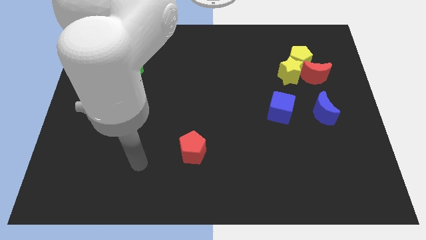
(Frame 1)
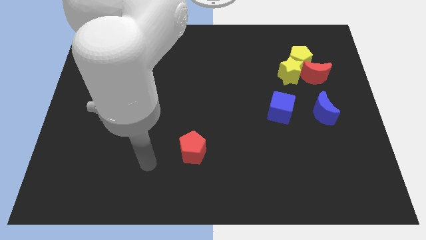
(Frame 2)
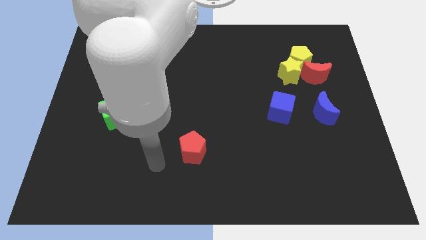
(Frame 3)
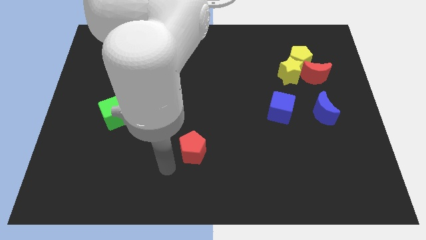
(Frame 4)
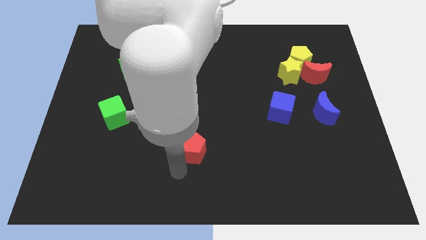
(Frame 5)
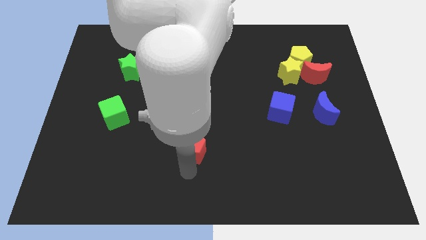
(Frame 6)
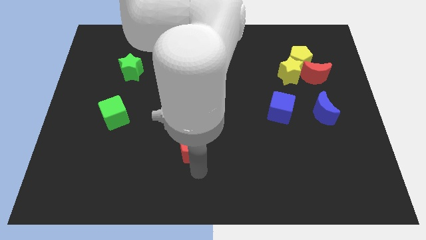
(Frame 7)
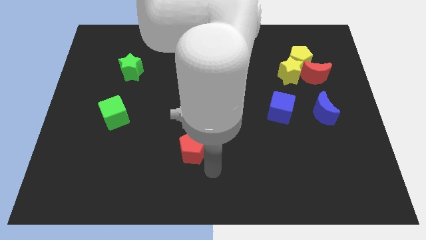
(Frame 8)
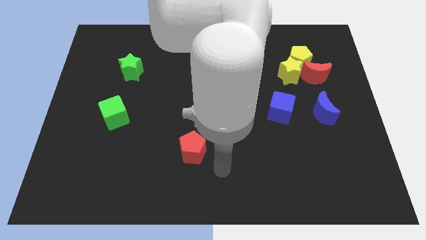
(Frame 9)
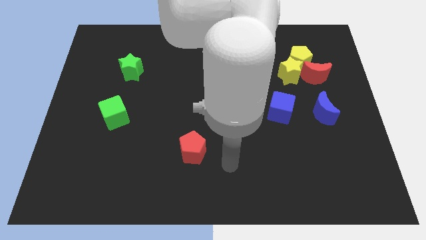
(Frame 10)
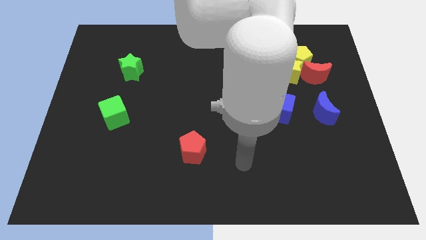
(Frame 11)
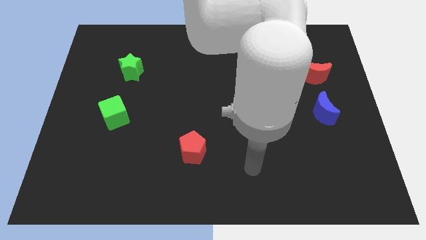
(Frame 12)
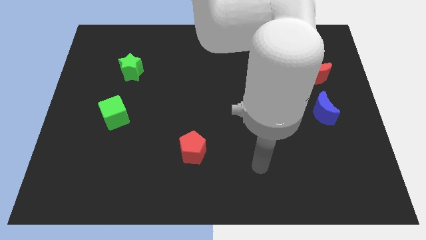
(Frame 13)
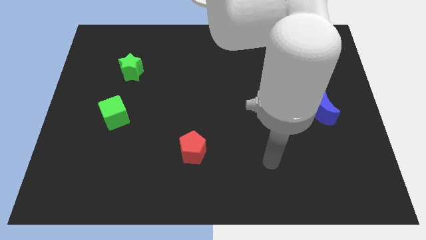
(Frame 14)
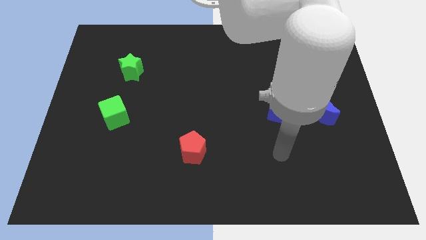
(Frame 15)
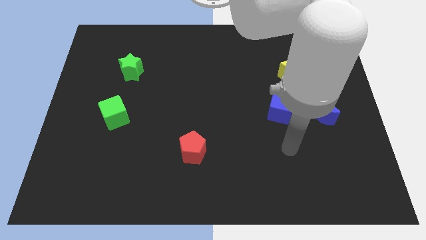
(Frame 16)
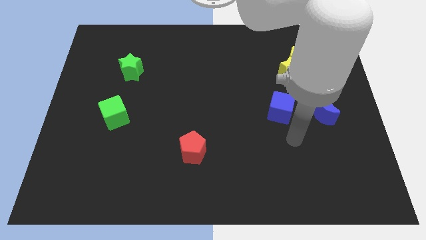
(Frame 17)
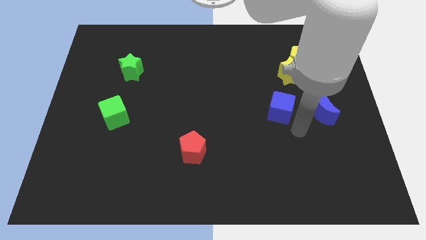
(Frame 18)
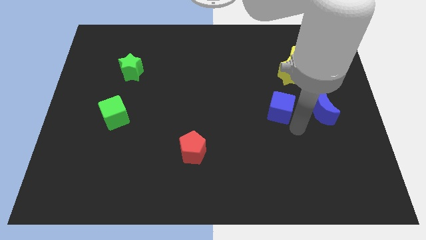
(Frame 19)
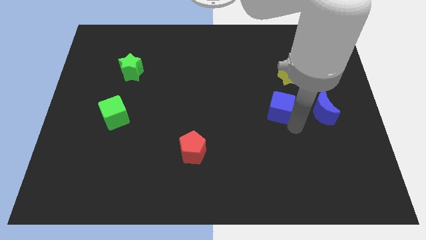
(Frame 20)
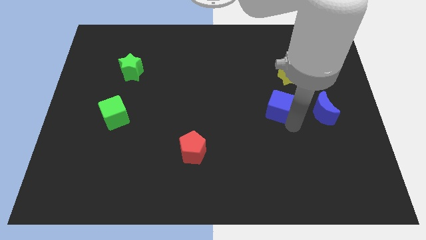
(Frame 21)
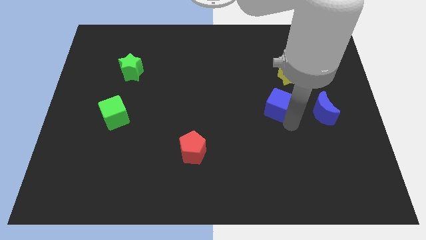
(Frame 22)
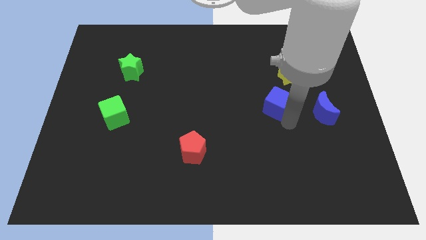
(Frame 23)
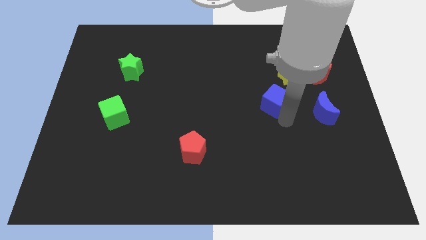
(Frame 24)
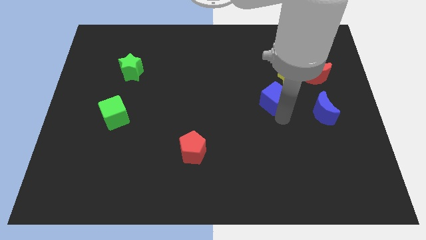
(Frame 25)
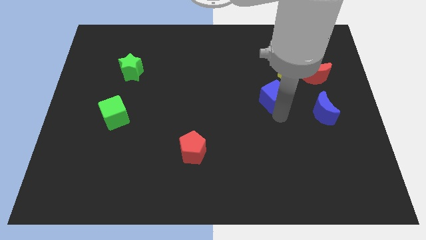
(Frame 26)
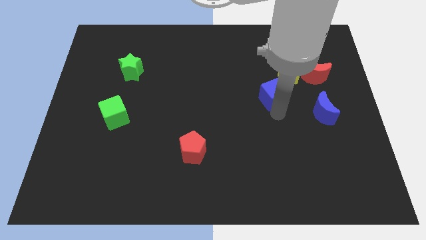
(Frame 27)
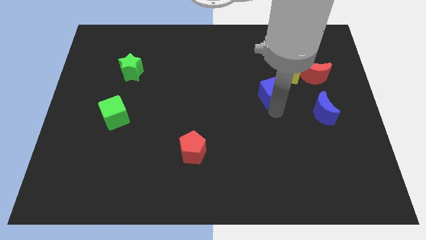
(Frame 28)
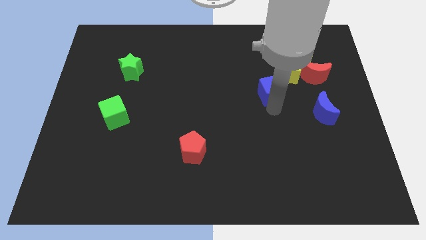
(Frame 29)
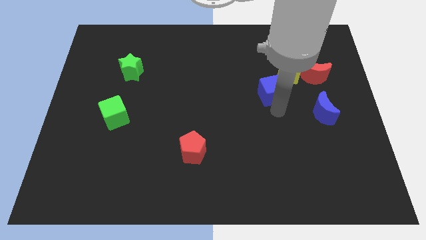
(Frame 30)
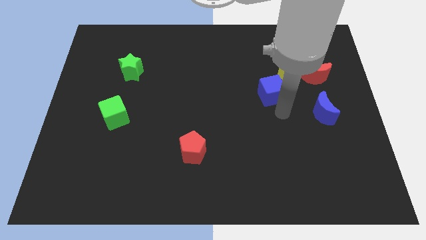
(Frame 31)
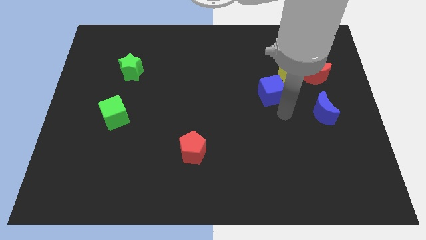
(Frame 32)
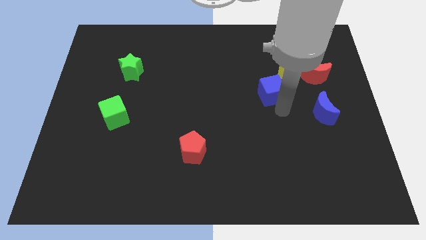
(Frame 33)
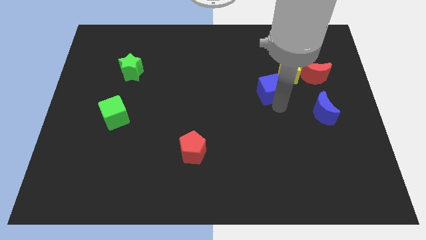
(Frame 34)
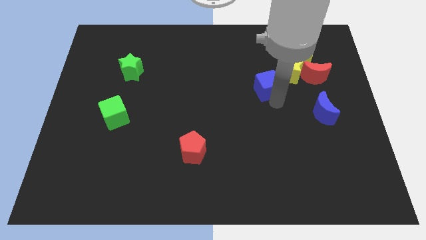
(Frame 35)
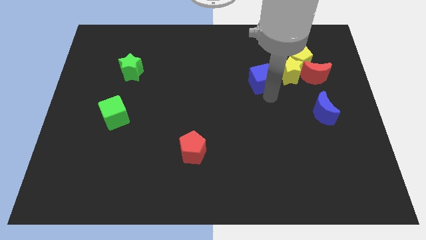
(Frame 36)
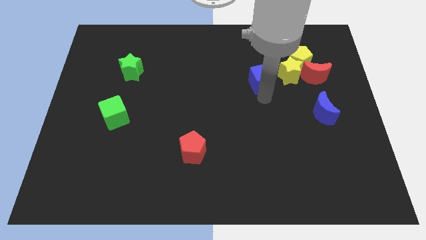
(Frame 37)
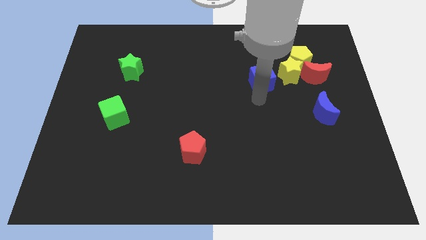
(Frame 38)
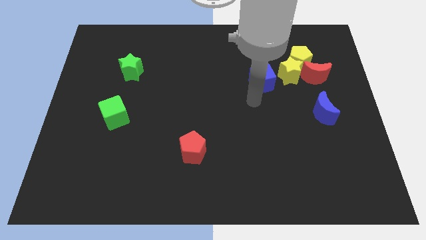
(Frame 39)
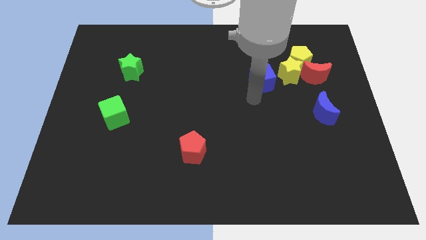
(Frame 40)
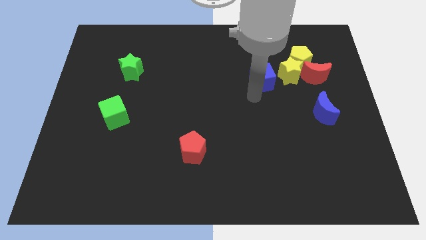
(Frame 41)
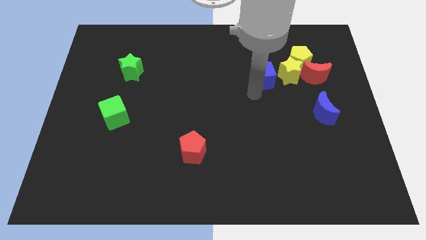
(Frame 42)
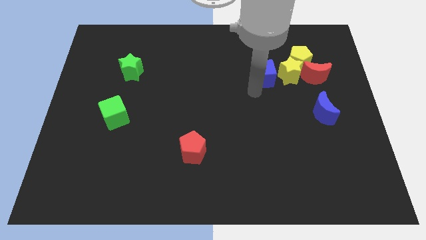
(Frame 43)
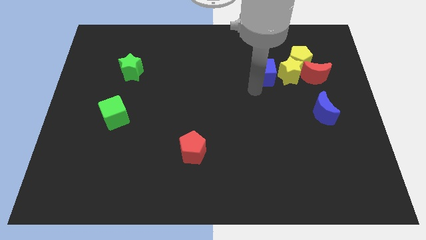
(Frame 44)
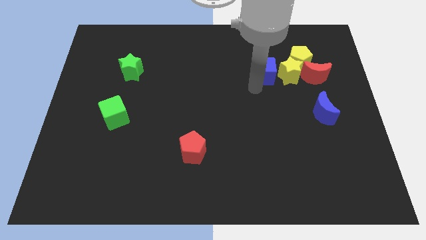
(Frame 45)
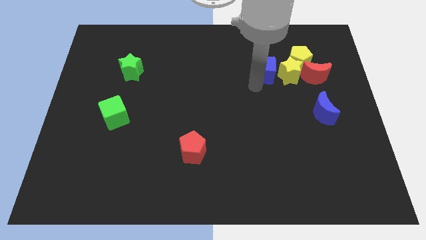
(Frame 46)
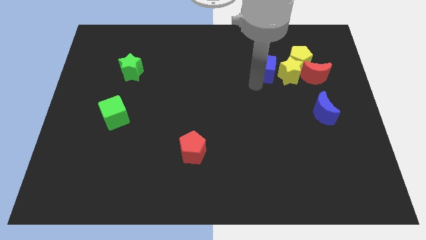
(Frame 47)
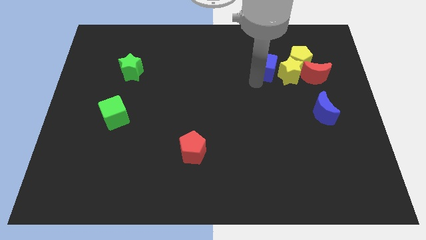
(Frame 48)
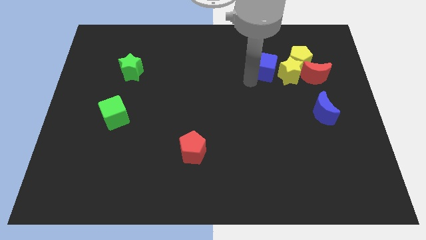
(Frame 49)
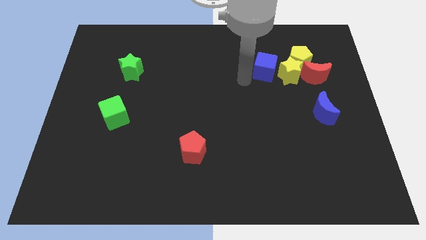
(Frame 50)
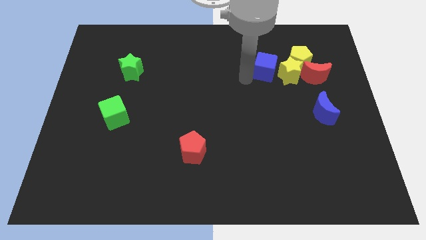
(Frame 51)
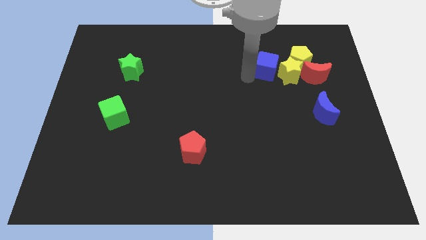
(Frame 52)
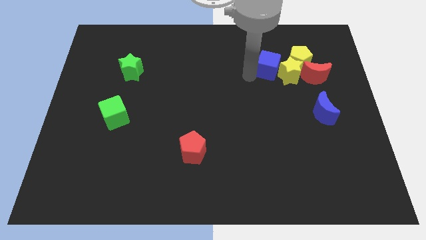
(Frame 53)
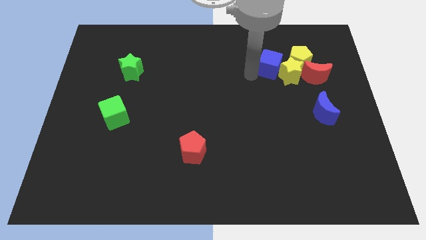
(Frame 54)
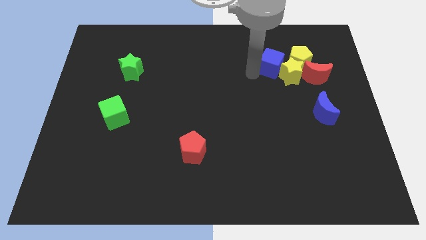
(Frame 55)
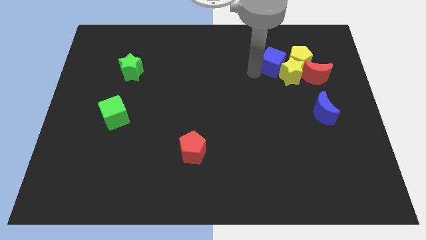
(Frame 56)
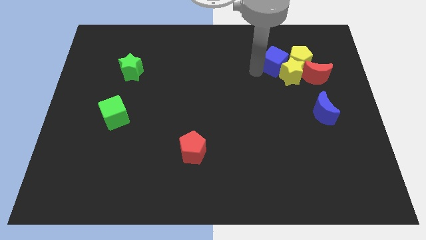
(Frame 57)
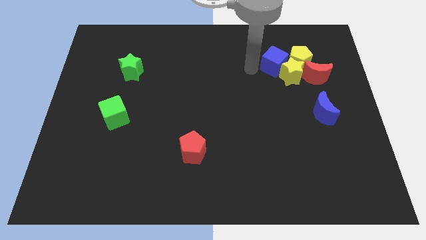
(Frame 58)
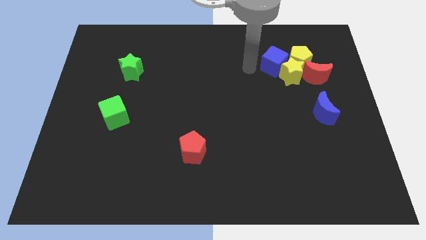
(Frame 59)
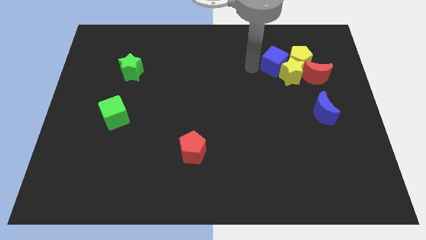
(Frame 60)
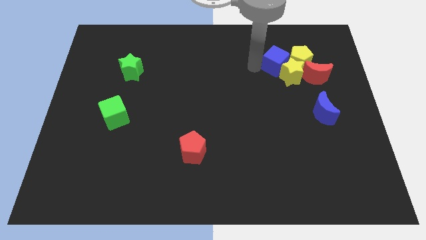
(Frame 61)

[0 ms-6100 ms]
move the blue cube to the yellow pentagon

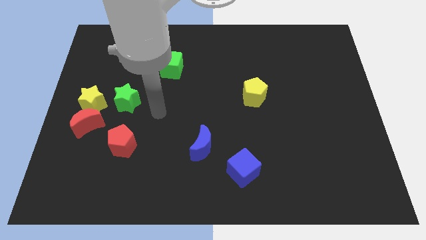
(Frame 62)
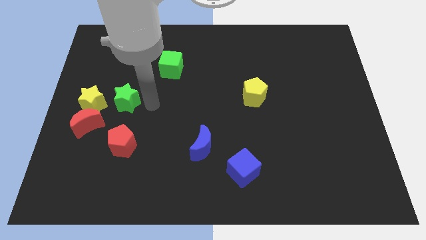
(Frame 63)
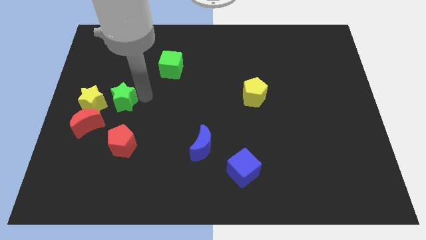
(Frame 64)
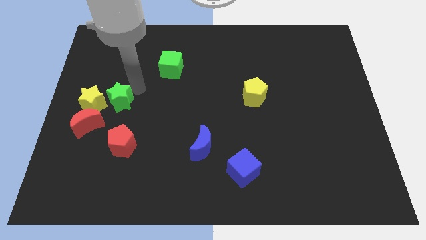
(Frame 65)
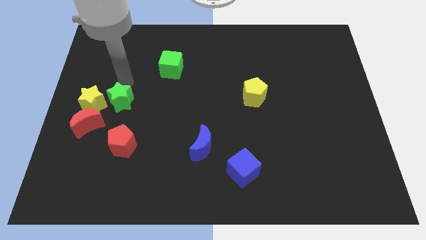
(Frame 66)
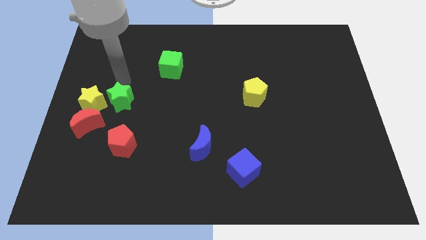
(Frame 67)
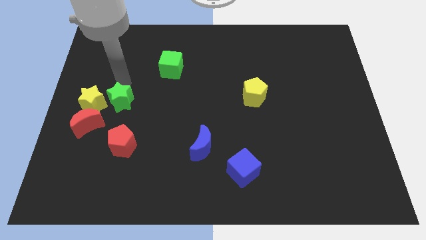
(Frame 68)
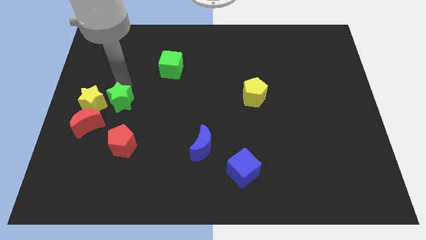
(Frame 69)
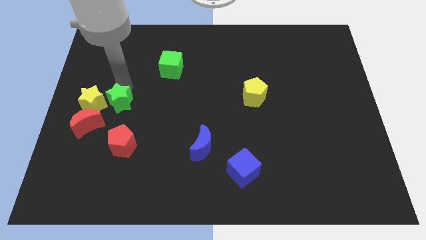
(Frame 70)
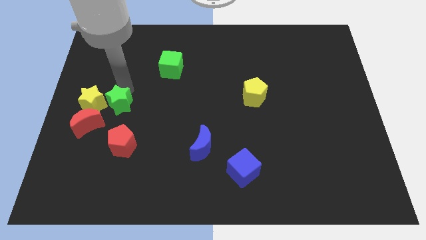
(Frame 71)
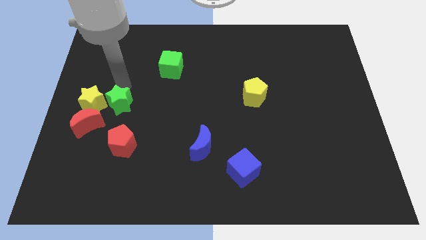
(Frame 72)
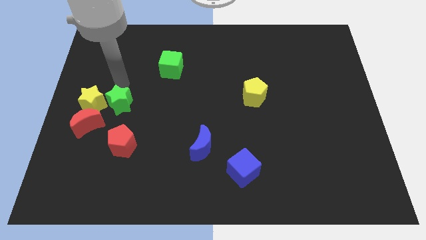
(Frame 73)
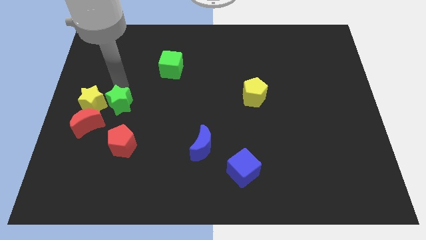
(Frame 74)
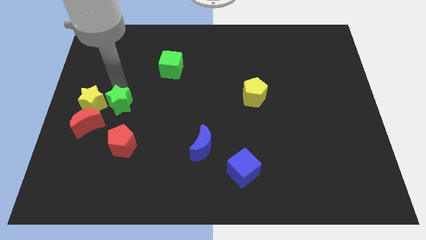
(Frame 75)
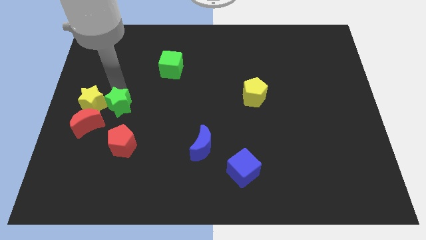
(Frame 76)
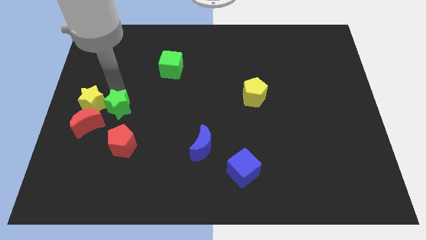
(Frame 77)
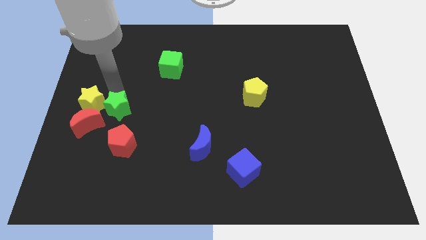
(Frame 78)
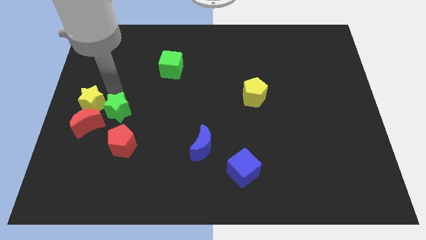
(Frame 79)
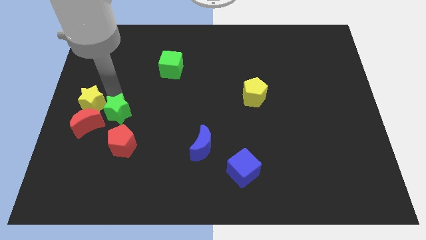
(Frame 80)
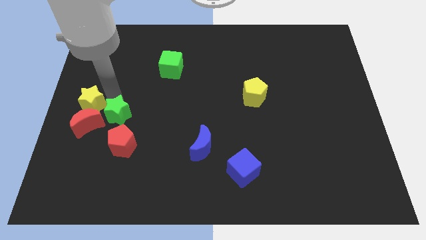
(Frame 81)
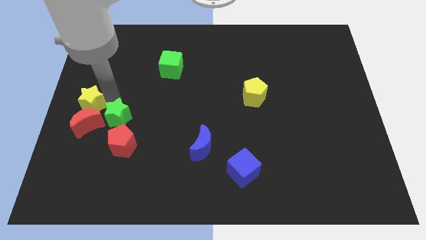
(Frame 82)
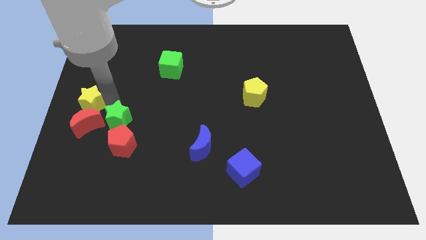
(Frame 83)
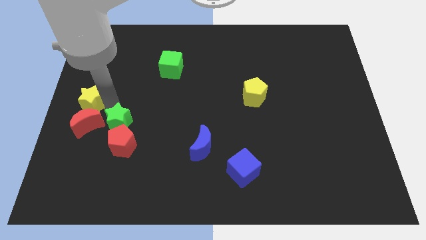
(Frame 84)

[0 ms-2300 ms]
push the green star next to the red pentagon
